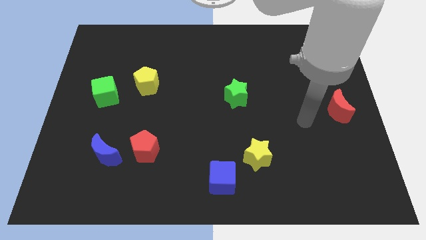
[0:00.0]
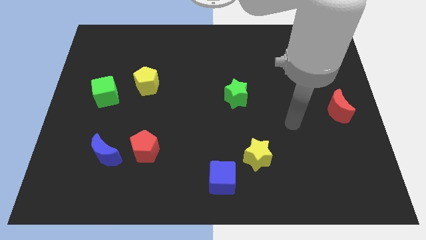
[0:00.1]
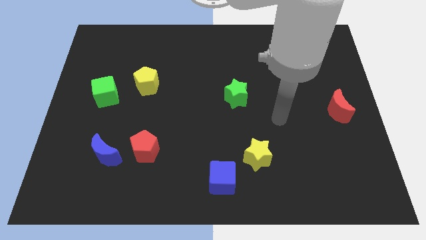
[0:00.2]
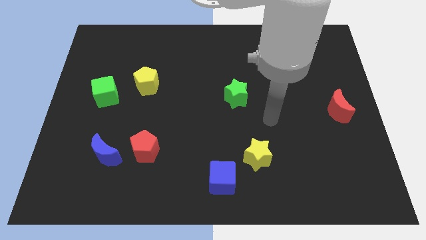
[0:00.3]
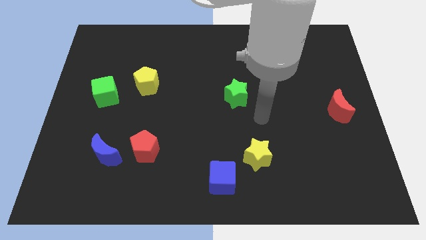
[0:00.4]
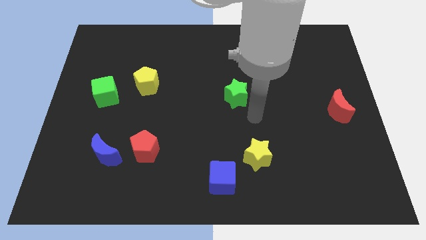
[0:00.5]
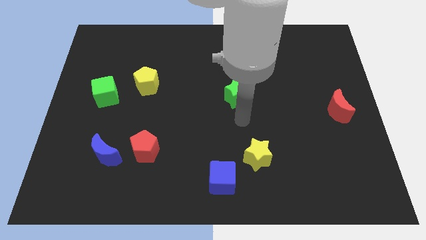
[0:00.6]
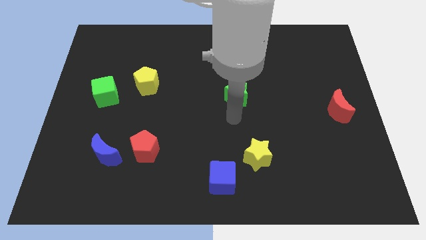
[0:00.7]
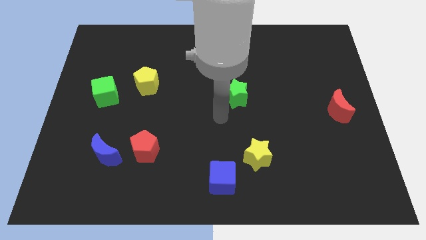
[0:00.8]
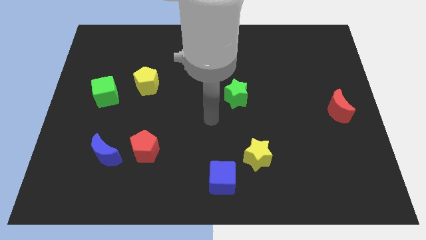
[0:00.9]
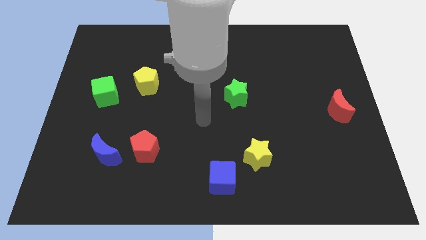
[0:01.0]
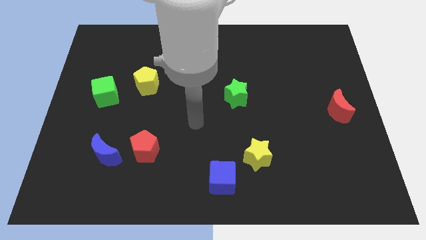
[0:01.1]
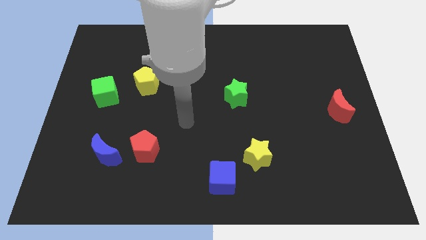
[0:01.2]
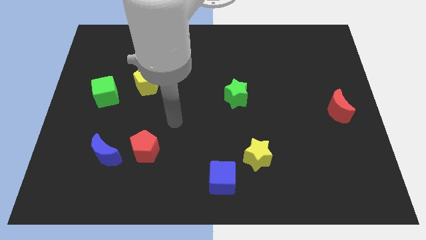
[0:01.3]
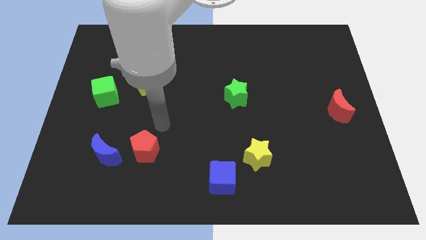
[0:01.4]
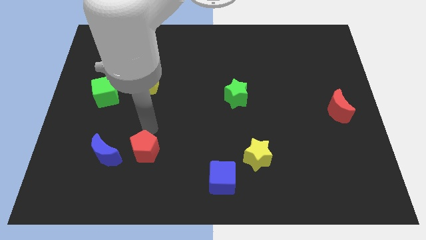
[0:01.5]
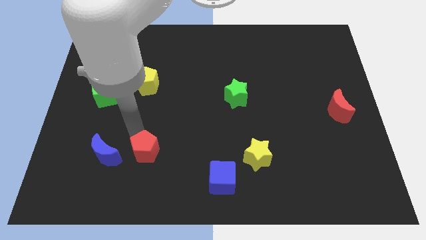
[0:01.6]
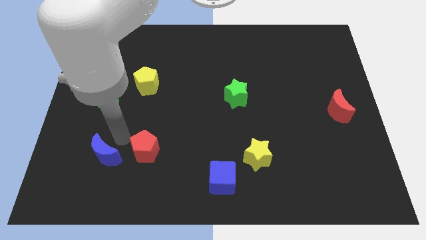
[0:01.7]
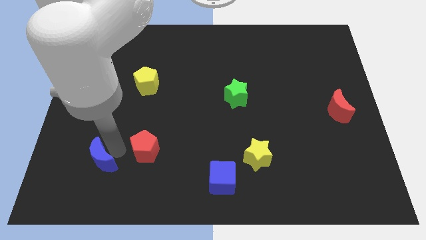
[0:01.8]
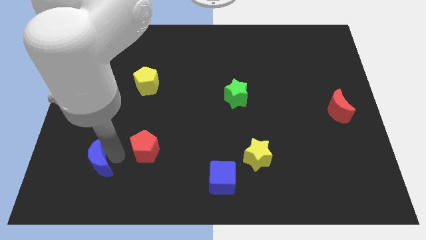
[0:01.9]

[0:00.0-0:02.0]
move the red pentagon away from the blue moon

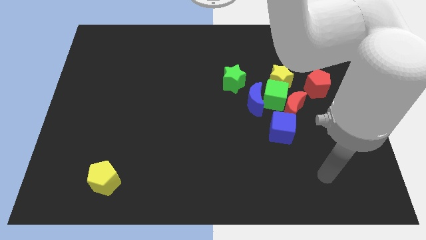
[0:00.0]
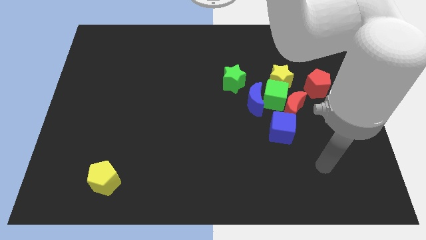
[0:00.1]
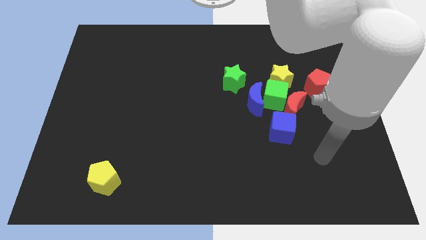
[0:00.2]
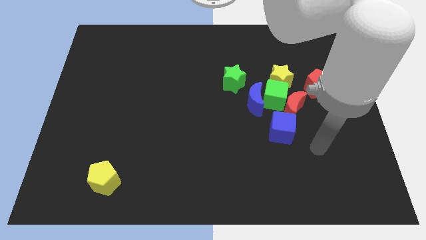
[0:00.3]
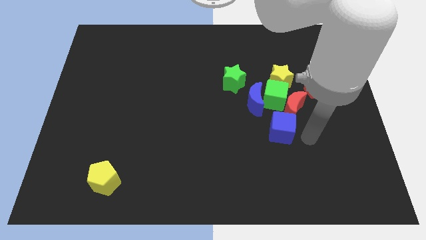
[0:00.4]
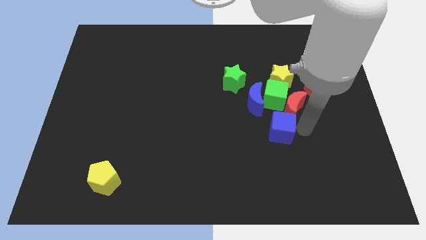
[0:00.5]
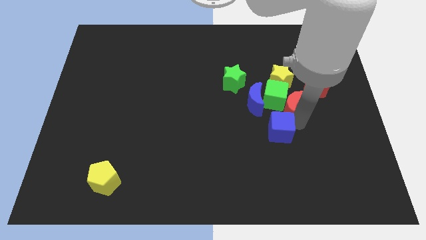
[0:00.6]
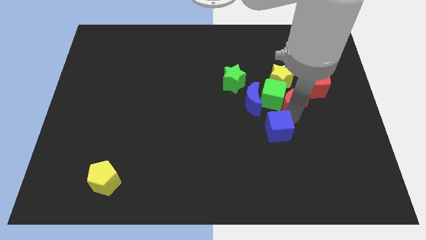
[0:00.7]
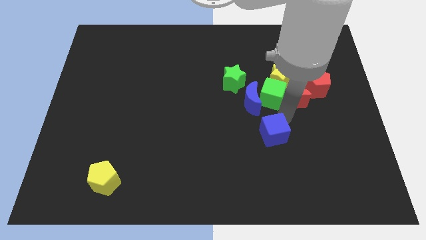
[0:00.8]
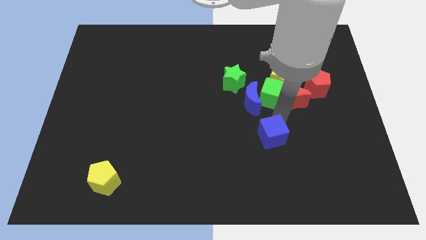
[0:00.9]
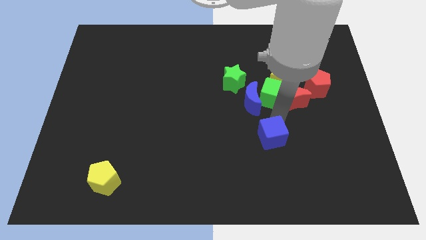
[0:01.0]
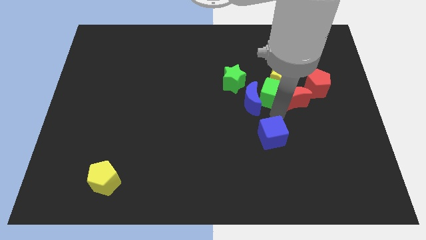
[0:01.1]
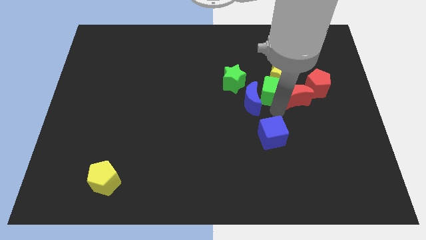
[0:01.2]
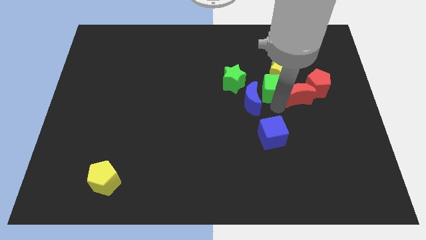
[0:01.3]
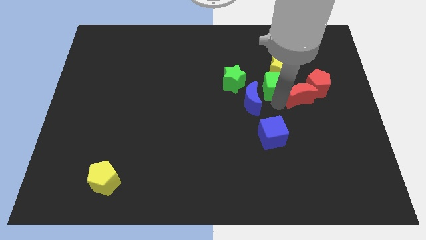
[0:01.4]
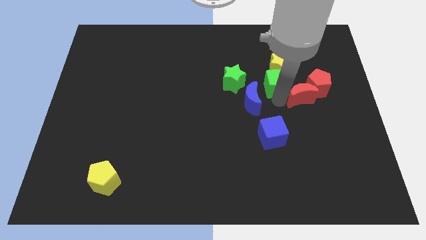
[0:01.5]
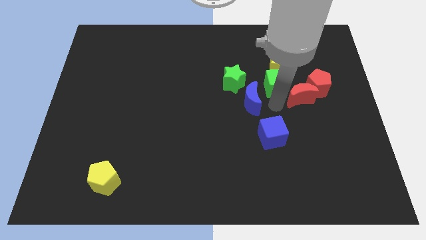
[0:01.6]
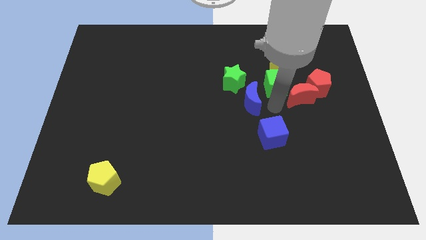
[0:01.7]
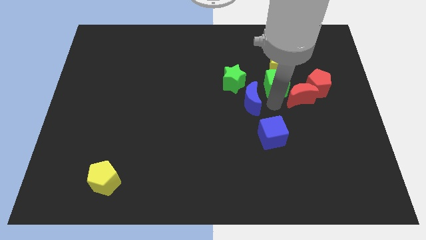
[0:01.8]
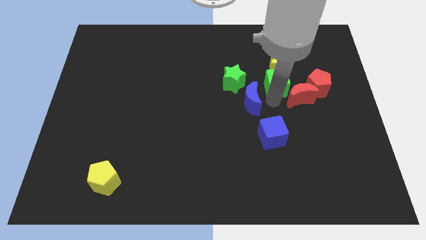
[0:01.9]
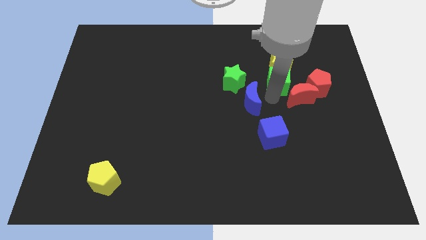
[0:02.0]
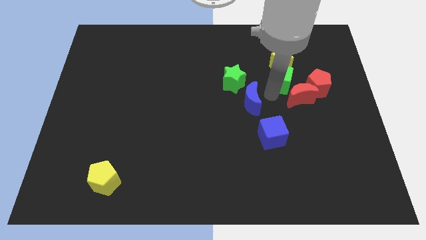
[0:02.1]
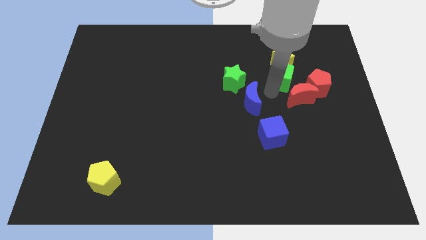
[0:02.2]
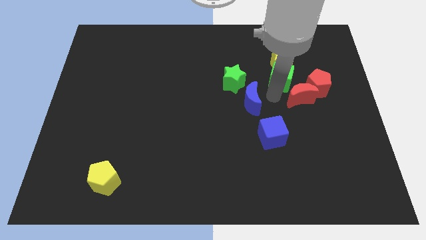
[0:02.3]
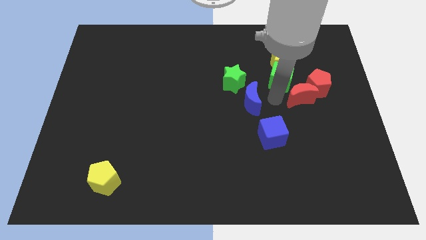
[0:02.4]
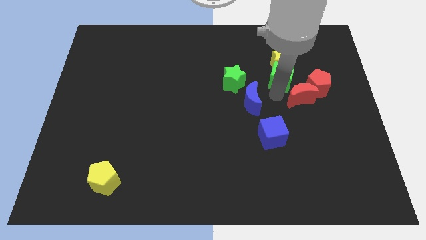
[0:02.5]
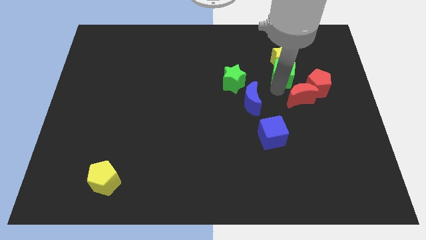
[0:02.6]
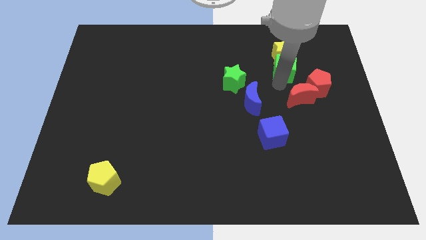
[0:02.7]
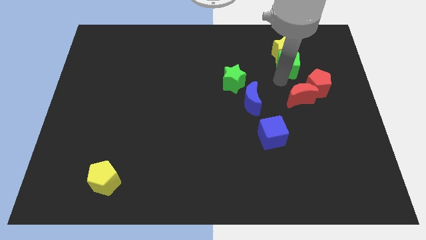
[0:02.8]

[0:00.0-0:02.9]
pull the green cube apart from the clump

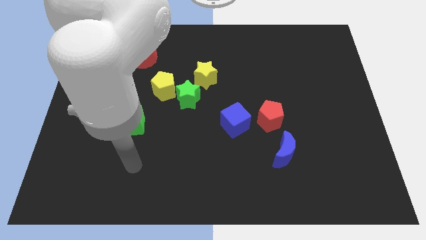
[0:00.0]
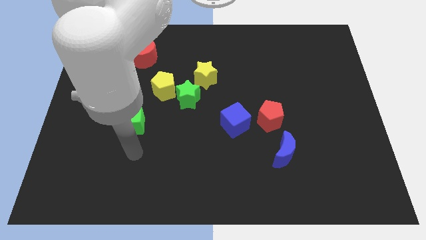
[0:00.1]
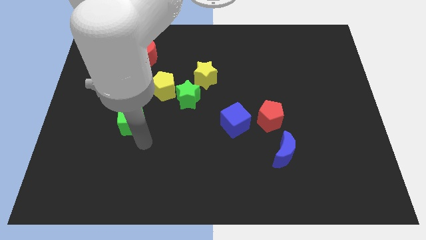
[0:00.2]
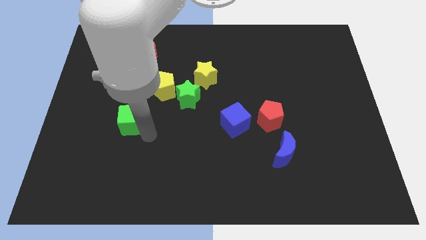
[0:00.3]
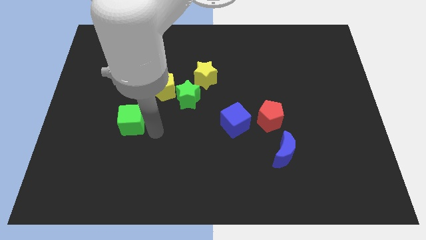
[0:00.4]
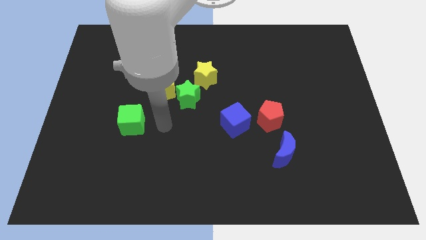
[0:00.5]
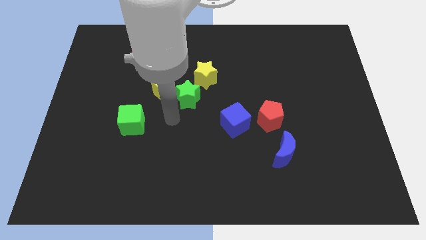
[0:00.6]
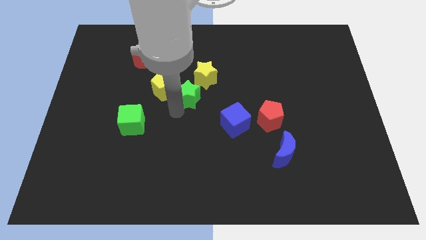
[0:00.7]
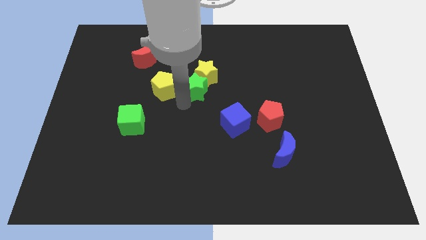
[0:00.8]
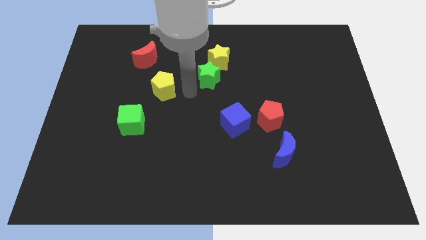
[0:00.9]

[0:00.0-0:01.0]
pull the yellow pentagon apart from the green star

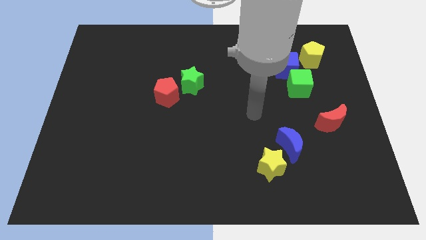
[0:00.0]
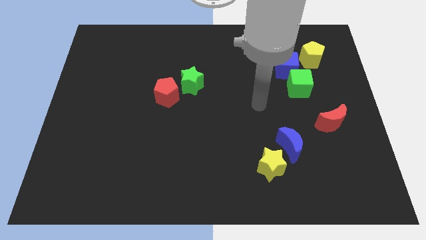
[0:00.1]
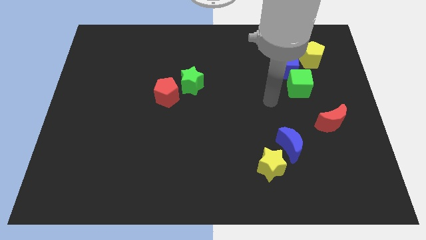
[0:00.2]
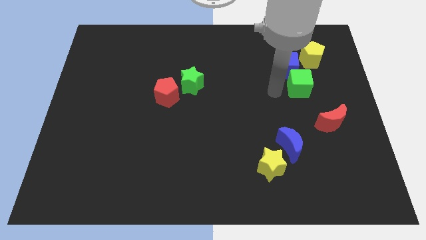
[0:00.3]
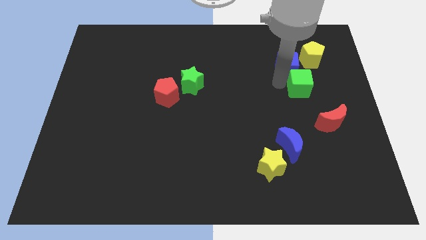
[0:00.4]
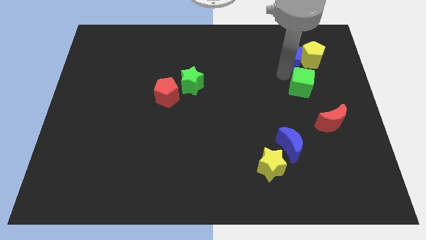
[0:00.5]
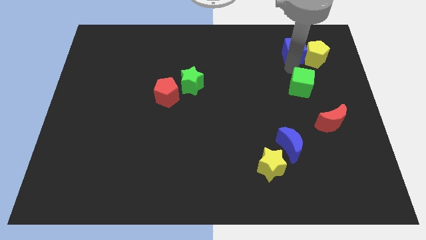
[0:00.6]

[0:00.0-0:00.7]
move the green cube away from the blue cube

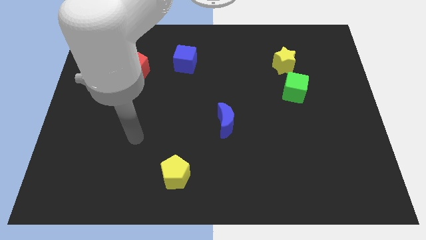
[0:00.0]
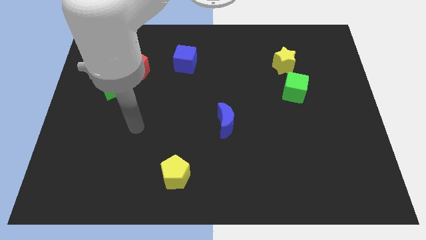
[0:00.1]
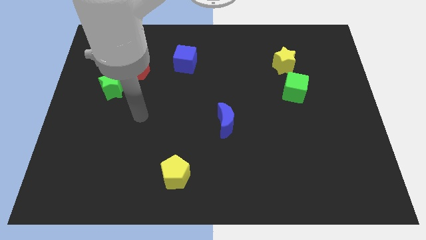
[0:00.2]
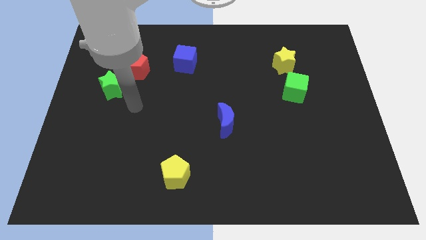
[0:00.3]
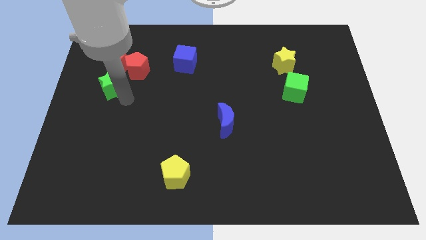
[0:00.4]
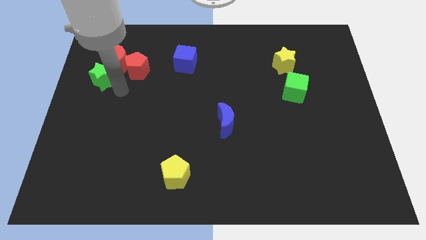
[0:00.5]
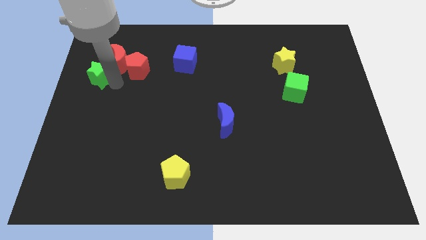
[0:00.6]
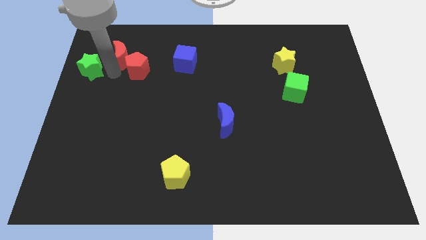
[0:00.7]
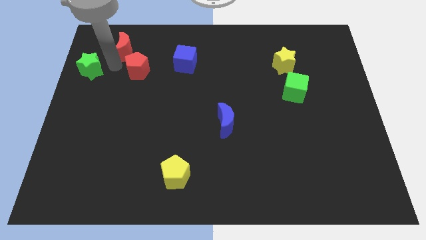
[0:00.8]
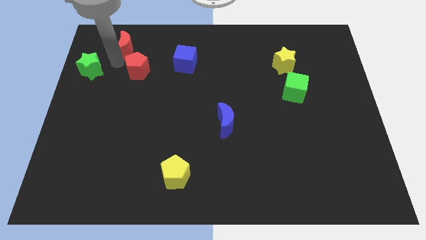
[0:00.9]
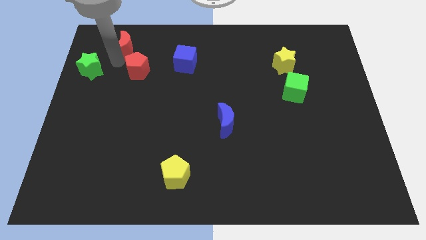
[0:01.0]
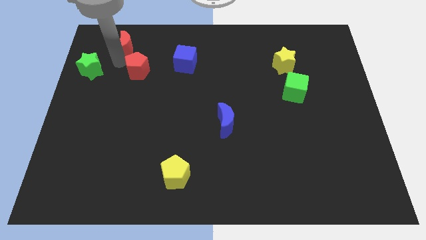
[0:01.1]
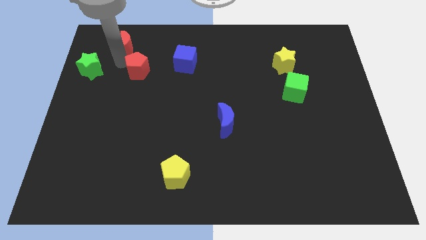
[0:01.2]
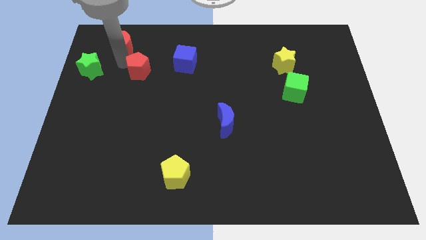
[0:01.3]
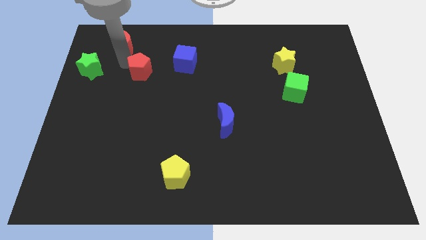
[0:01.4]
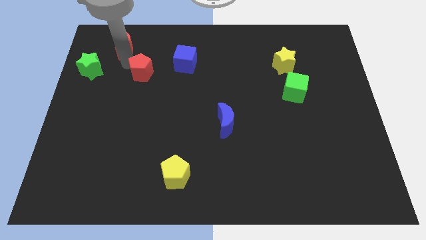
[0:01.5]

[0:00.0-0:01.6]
pull the red pentagon apart from the red moon and green star

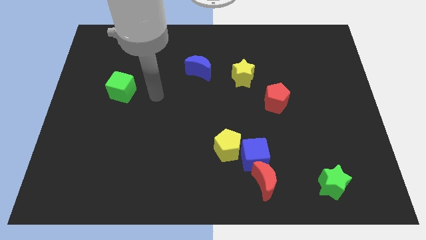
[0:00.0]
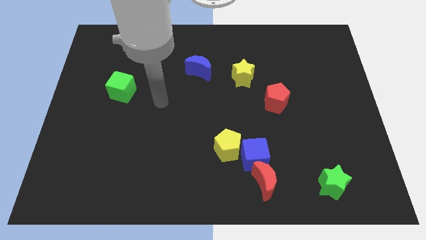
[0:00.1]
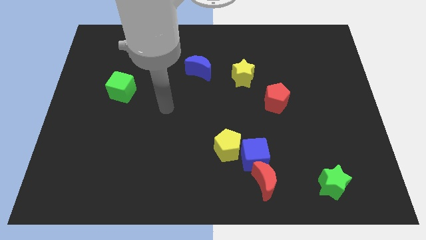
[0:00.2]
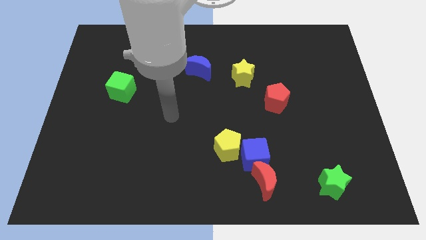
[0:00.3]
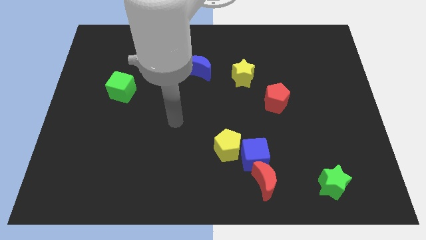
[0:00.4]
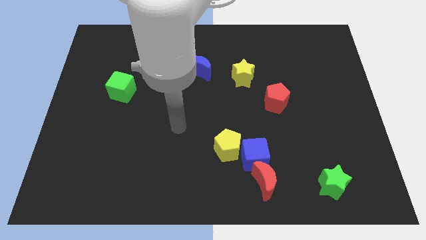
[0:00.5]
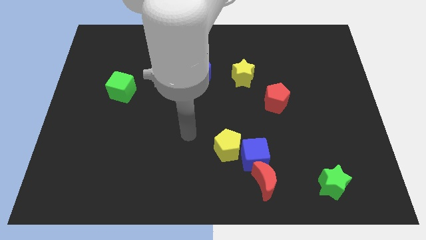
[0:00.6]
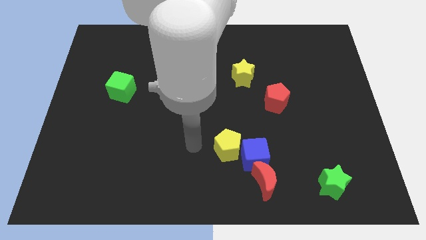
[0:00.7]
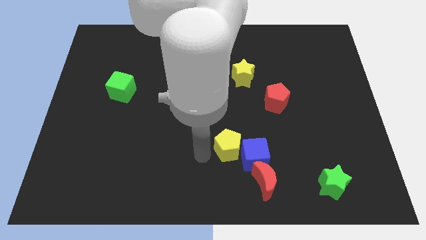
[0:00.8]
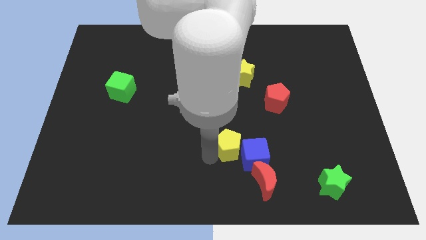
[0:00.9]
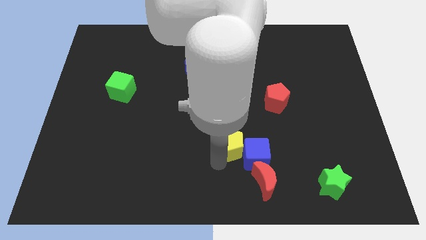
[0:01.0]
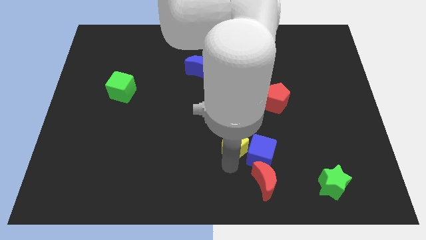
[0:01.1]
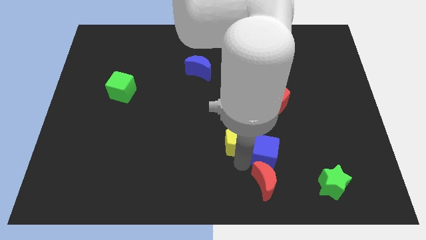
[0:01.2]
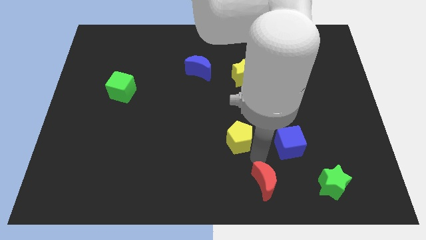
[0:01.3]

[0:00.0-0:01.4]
move the yellow pentagon away from the blue cube
